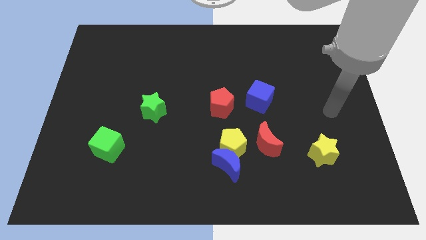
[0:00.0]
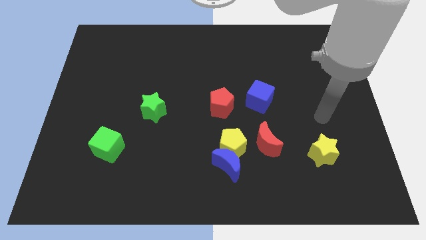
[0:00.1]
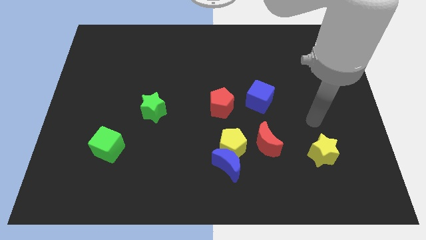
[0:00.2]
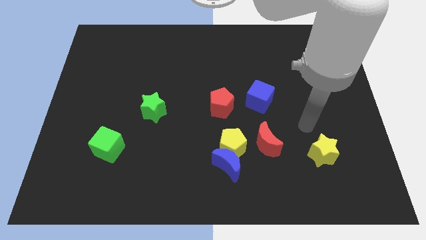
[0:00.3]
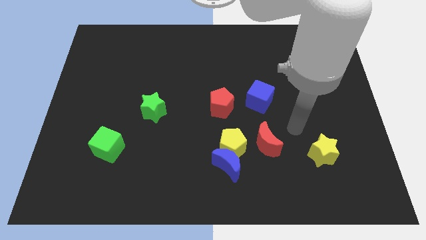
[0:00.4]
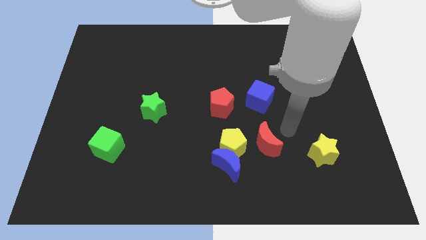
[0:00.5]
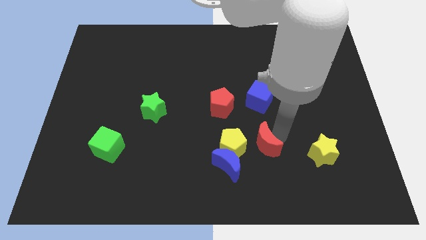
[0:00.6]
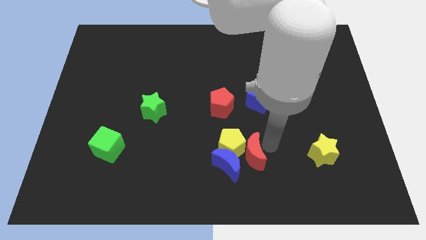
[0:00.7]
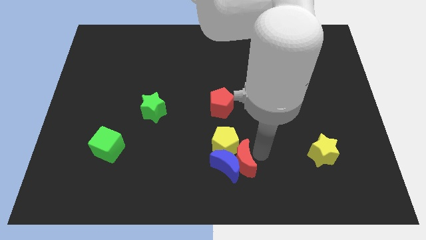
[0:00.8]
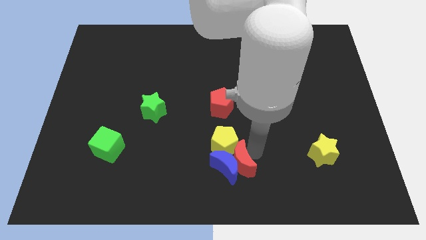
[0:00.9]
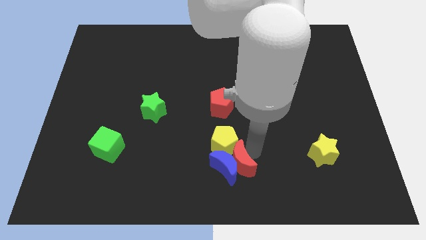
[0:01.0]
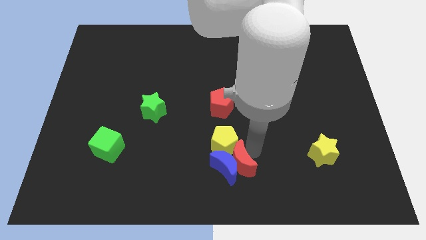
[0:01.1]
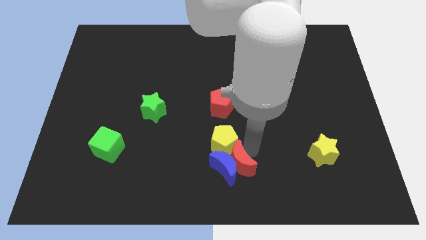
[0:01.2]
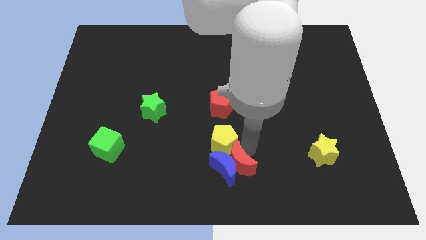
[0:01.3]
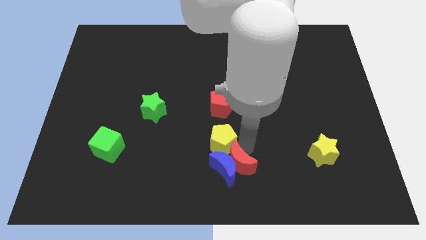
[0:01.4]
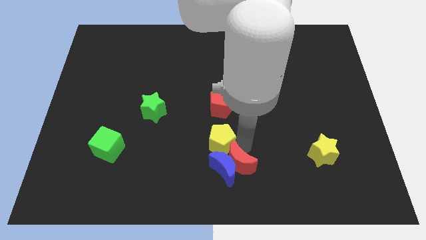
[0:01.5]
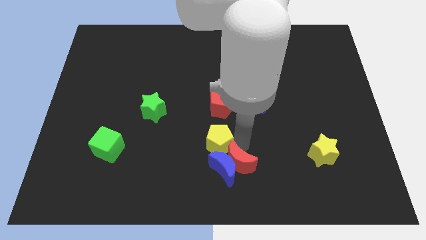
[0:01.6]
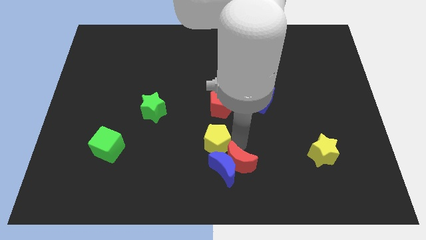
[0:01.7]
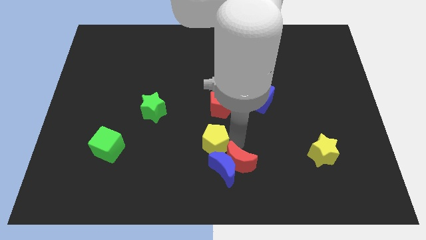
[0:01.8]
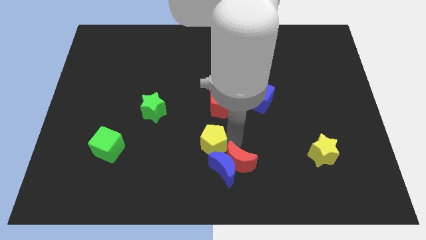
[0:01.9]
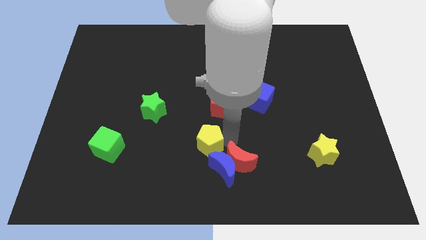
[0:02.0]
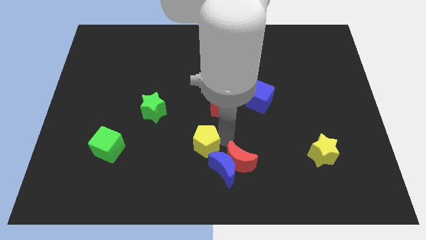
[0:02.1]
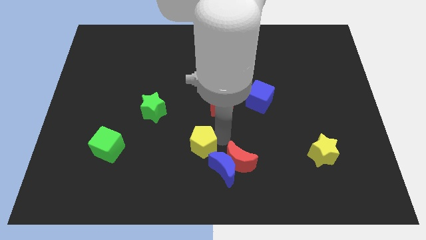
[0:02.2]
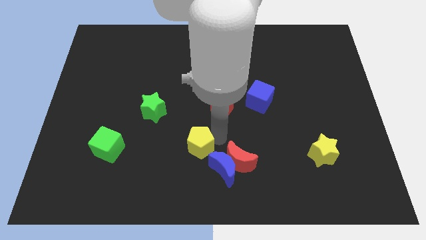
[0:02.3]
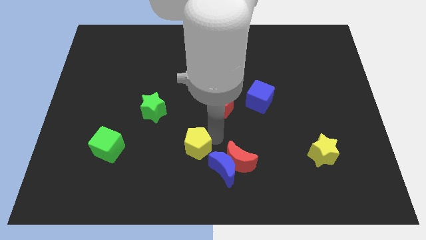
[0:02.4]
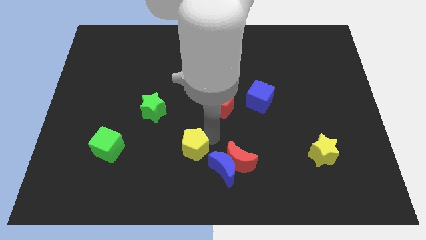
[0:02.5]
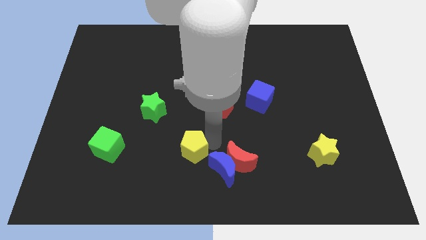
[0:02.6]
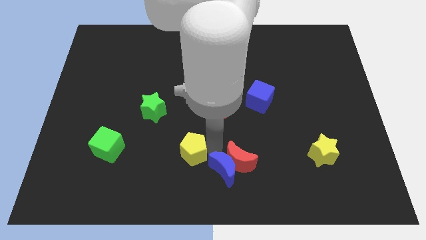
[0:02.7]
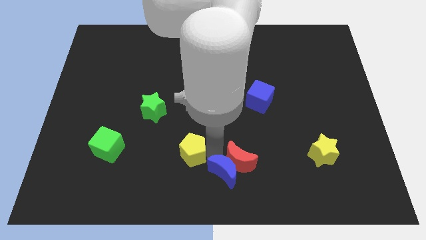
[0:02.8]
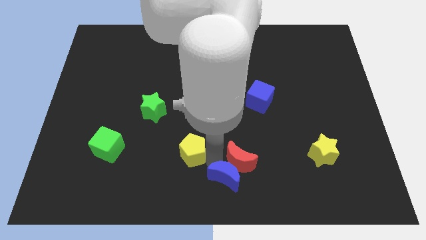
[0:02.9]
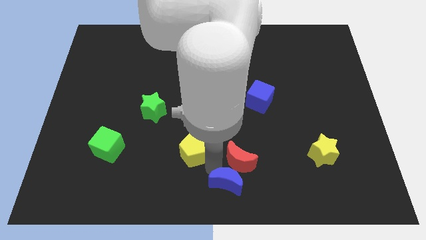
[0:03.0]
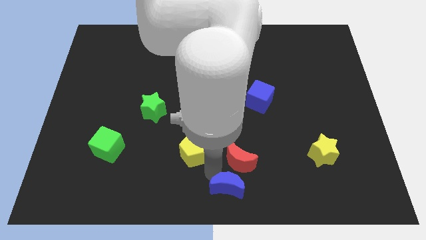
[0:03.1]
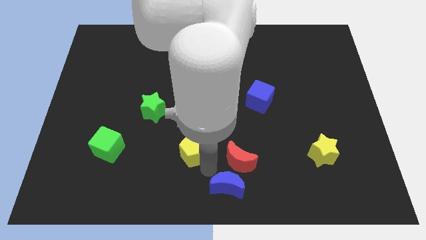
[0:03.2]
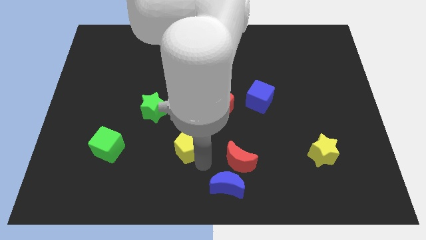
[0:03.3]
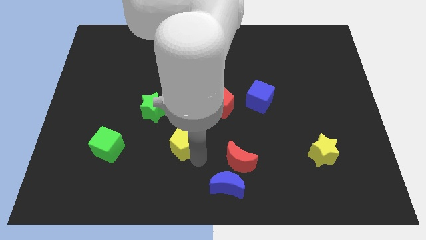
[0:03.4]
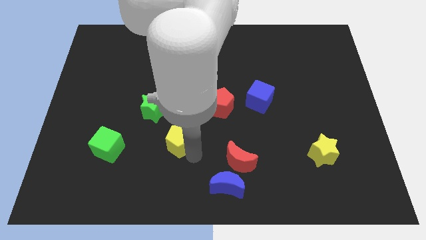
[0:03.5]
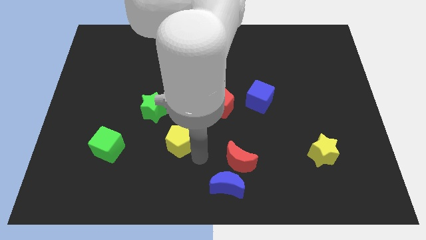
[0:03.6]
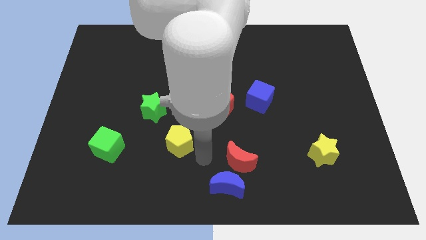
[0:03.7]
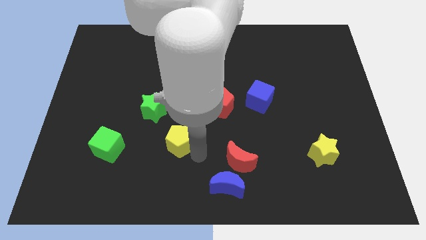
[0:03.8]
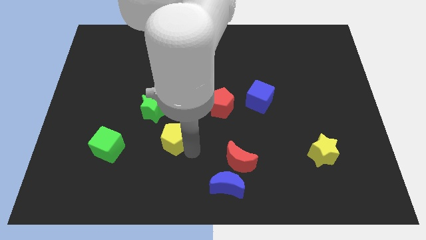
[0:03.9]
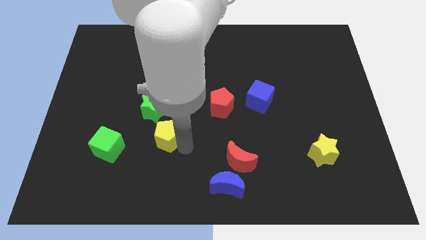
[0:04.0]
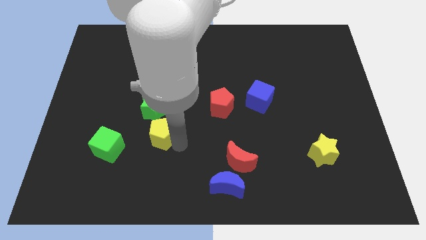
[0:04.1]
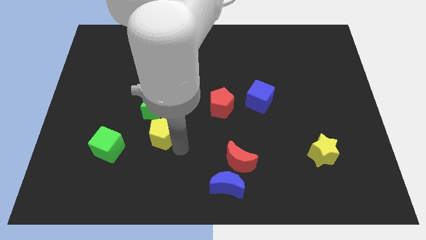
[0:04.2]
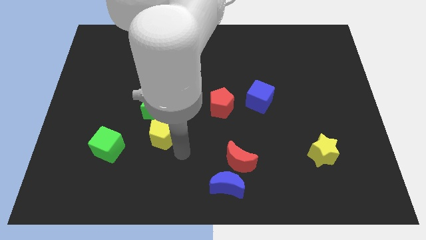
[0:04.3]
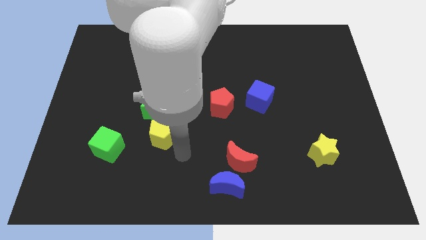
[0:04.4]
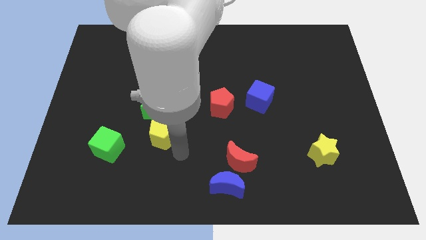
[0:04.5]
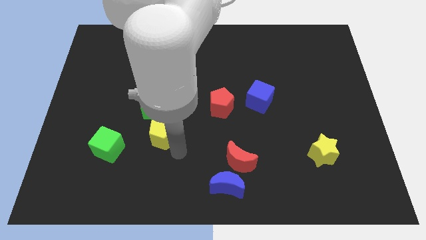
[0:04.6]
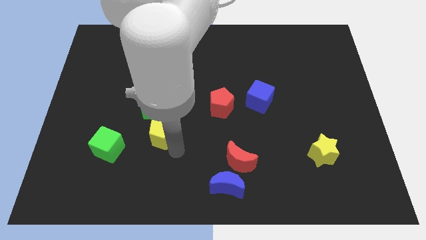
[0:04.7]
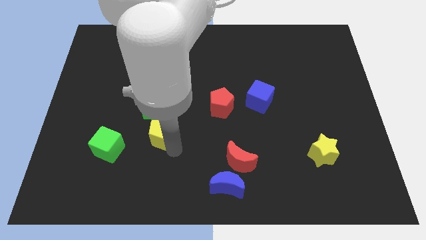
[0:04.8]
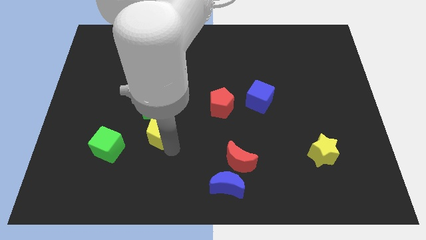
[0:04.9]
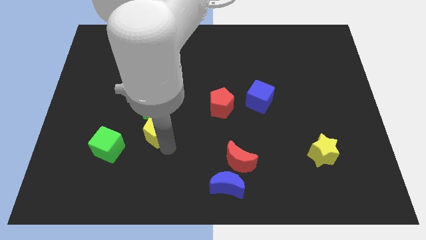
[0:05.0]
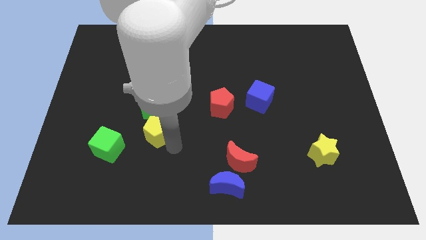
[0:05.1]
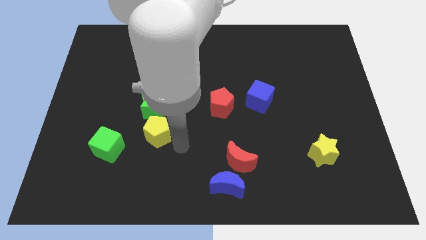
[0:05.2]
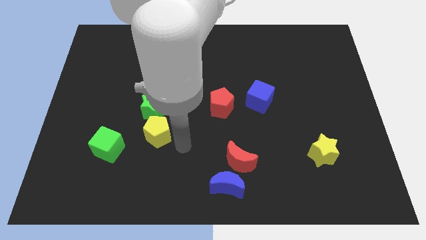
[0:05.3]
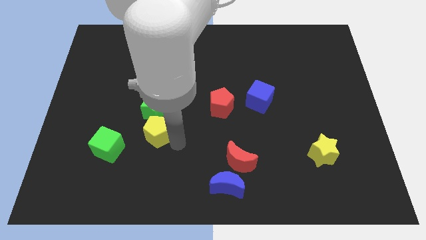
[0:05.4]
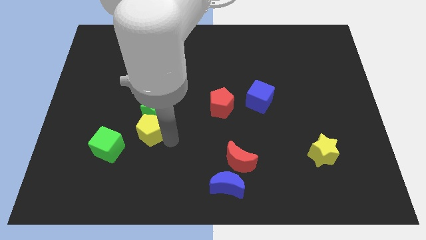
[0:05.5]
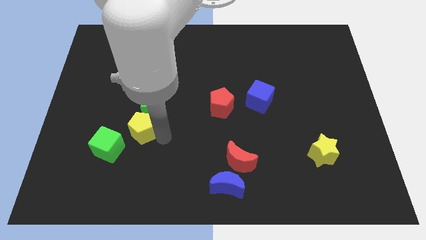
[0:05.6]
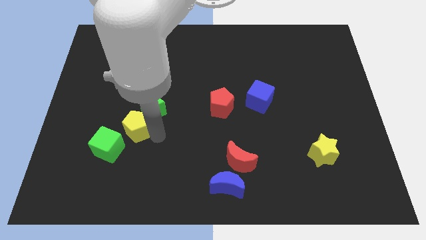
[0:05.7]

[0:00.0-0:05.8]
push the yellow pentagon left

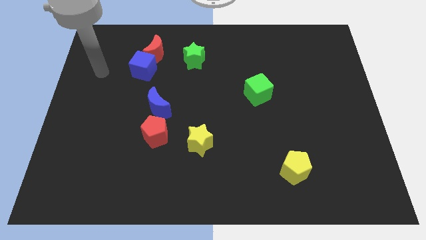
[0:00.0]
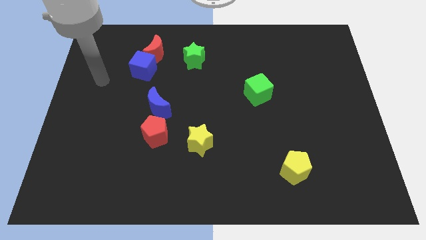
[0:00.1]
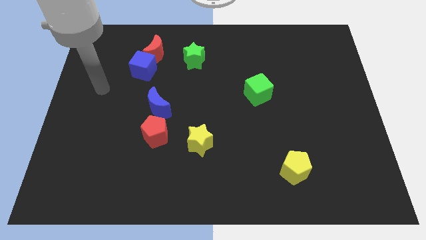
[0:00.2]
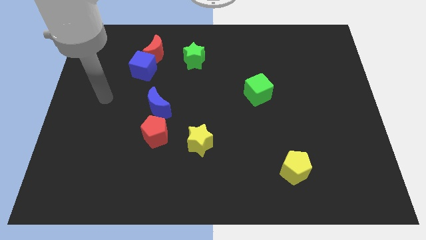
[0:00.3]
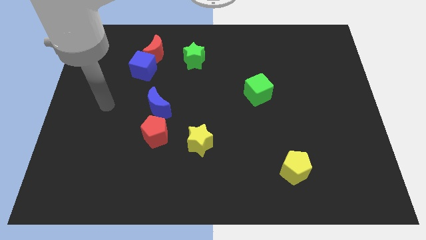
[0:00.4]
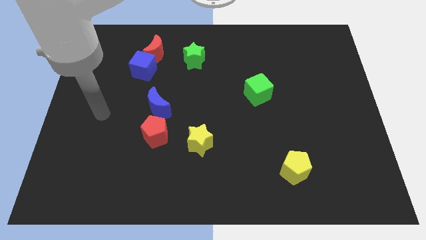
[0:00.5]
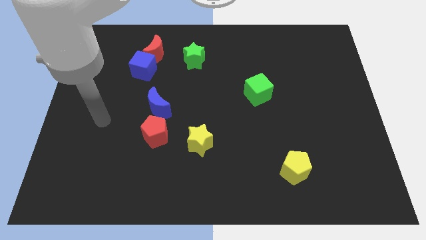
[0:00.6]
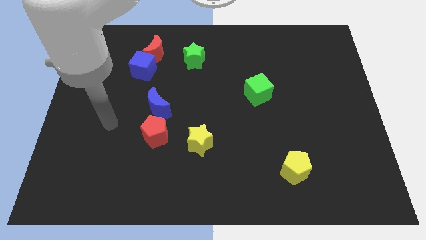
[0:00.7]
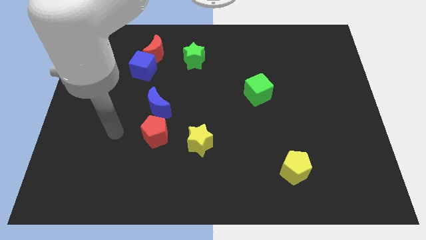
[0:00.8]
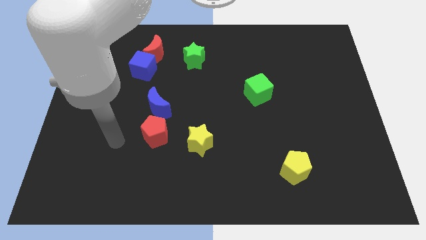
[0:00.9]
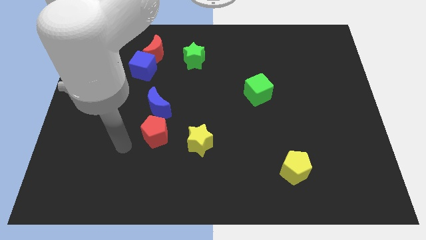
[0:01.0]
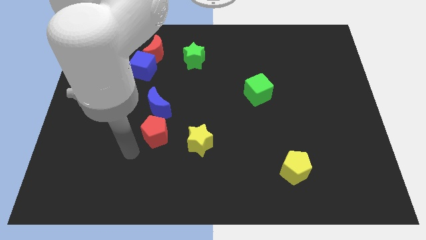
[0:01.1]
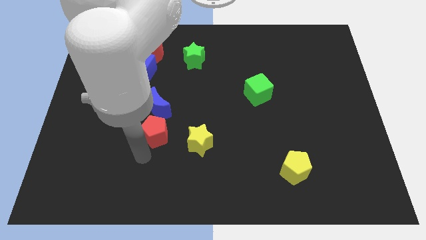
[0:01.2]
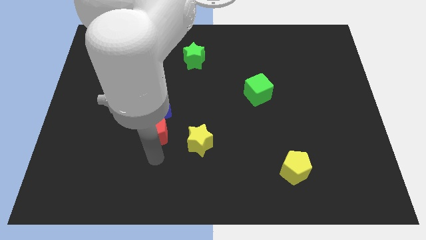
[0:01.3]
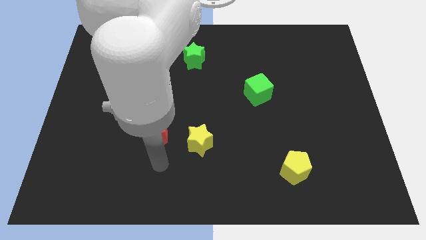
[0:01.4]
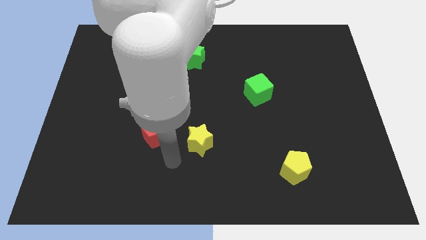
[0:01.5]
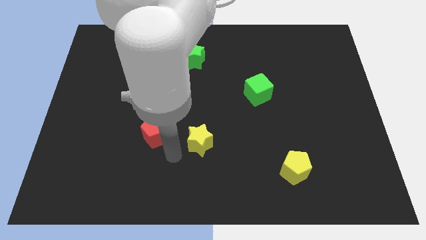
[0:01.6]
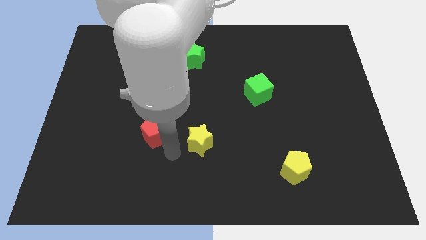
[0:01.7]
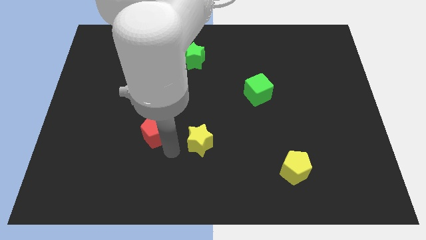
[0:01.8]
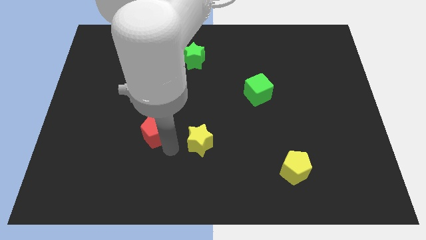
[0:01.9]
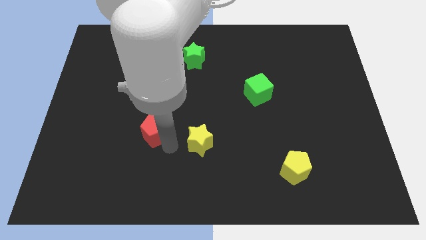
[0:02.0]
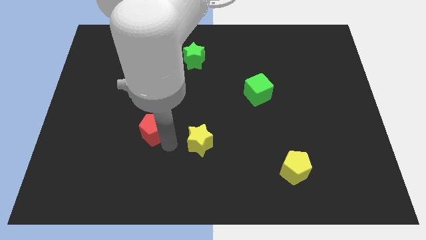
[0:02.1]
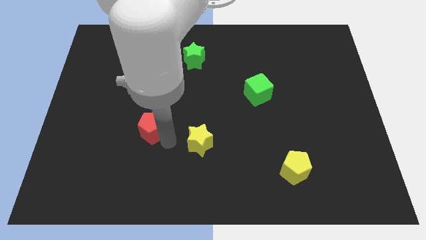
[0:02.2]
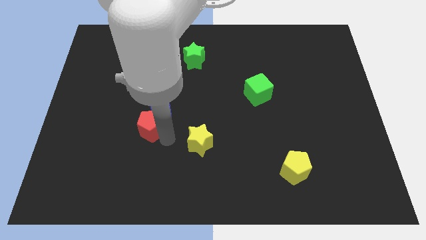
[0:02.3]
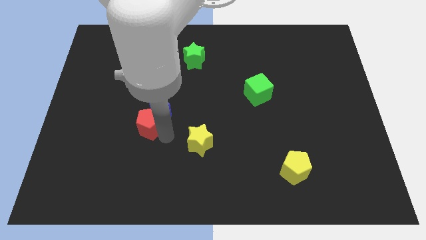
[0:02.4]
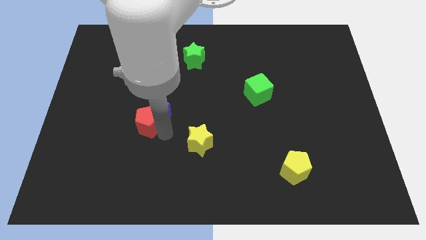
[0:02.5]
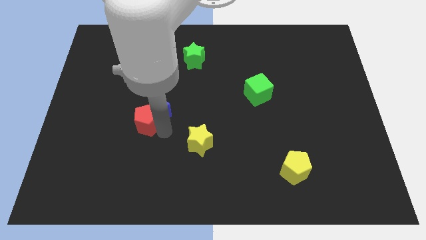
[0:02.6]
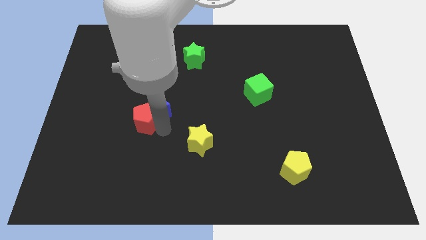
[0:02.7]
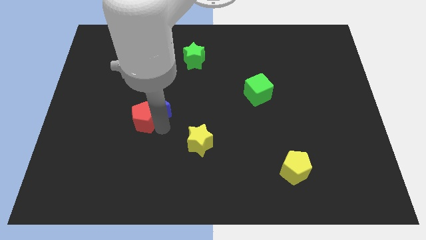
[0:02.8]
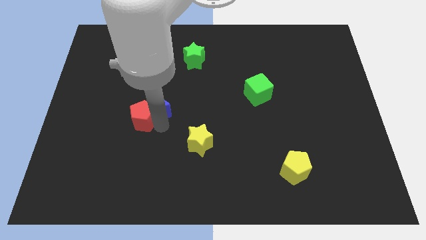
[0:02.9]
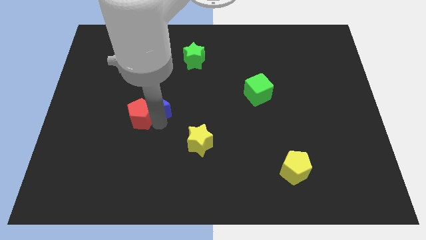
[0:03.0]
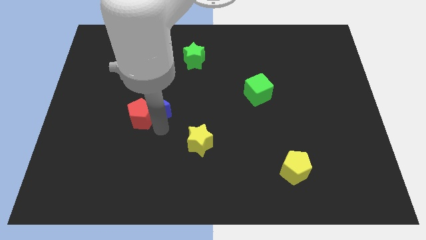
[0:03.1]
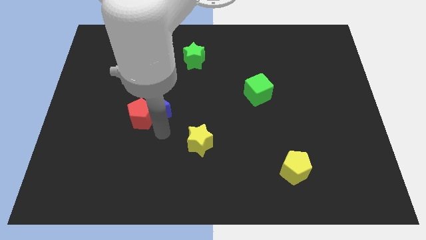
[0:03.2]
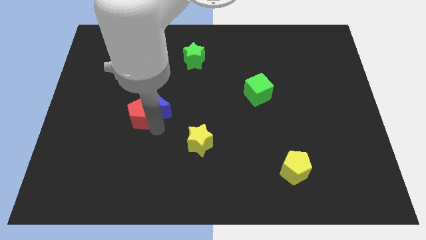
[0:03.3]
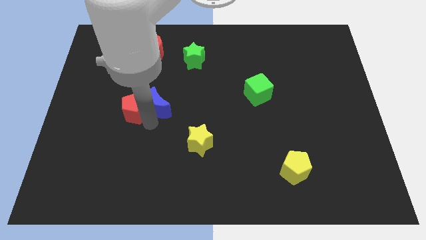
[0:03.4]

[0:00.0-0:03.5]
push the red pentagon a little bit up and then to the left
